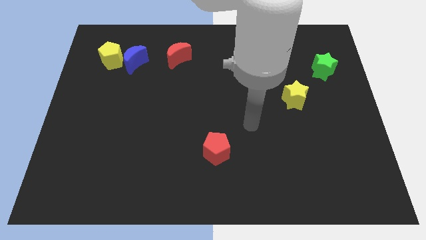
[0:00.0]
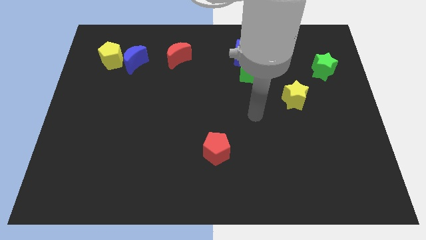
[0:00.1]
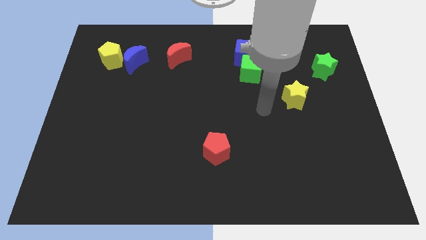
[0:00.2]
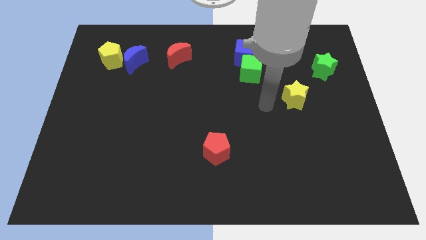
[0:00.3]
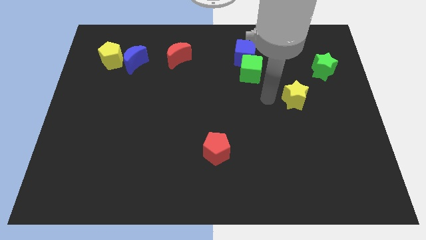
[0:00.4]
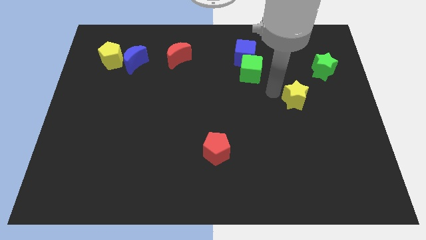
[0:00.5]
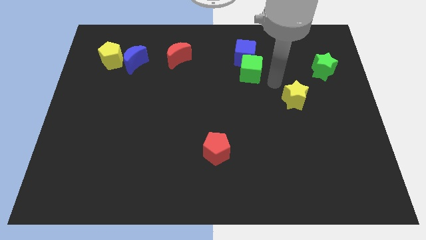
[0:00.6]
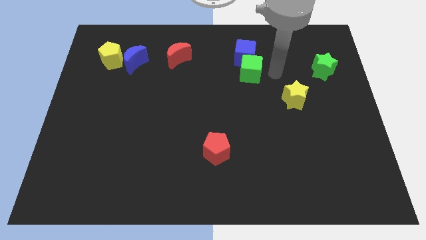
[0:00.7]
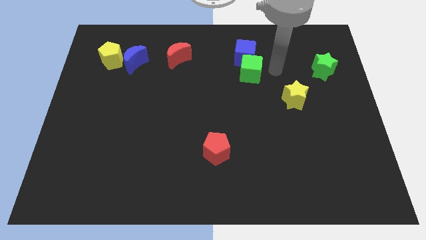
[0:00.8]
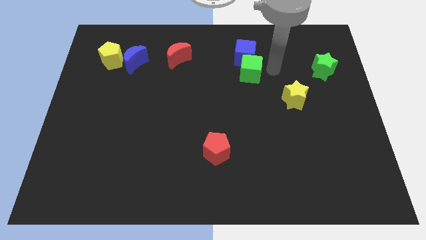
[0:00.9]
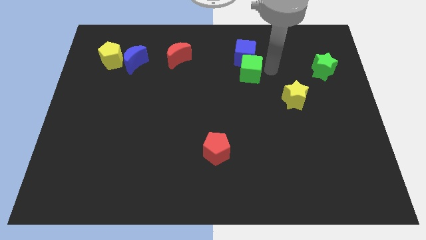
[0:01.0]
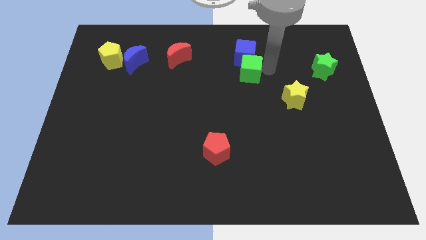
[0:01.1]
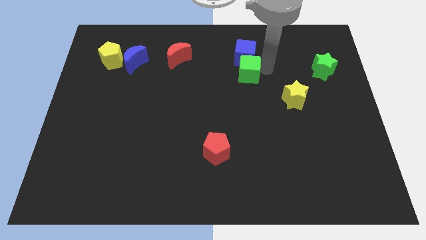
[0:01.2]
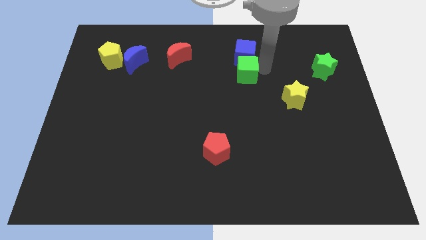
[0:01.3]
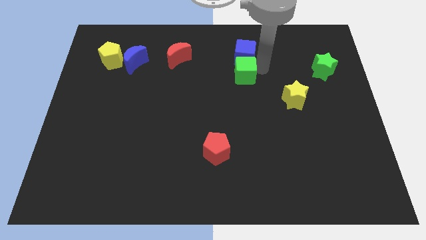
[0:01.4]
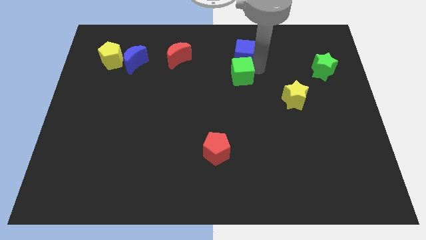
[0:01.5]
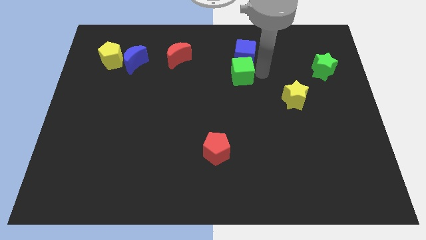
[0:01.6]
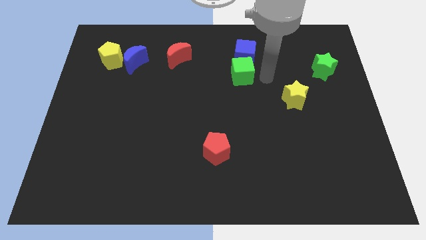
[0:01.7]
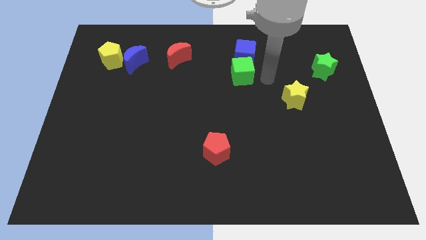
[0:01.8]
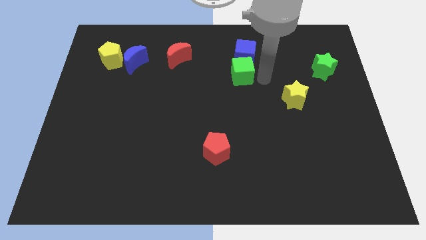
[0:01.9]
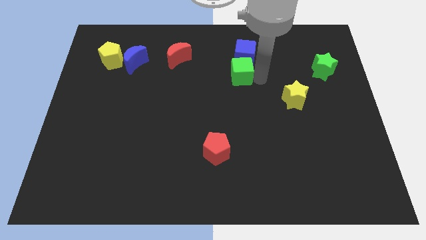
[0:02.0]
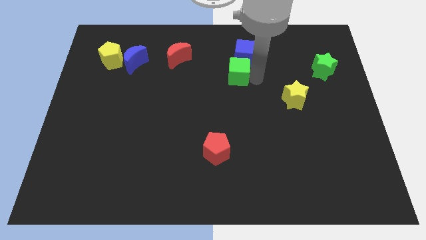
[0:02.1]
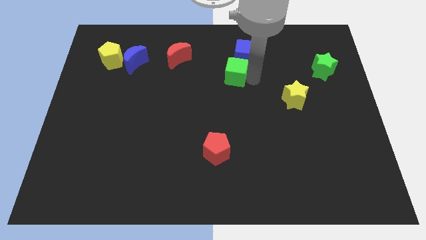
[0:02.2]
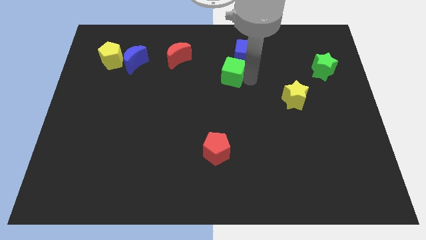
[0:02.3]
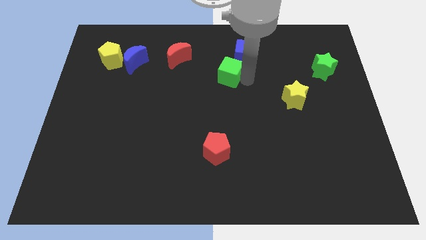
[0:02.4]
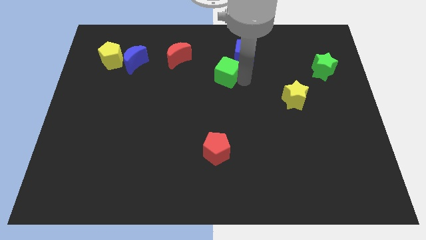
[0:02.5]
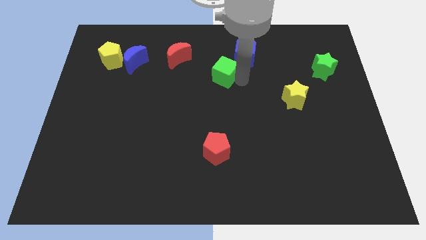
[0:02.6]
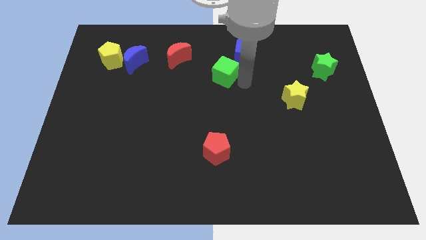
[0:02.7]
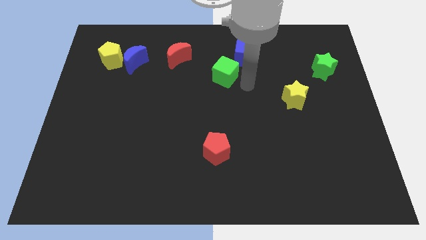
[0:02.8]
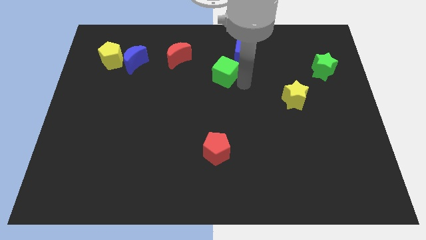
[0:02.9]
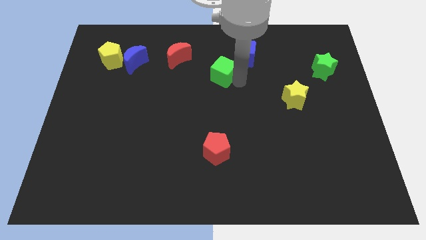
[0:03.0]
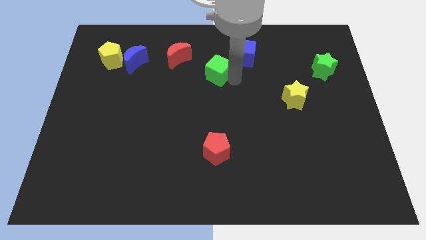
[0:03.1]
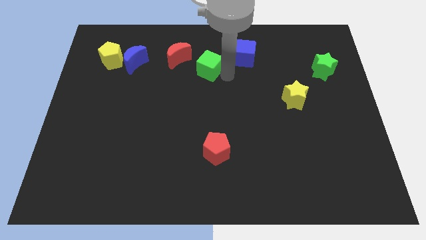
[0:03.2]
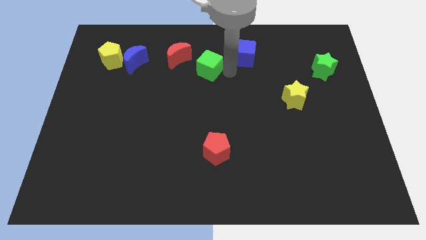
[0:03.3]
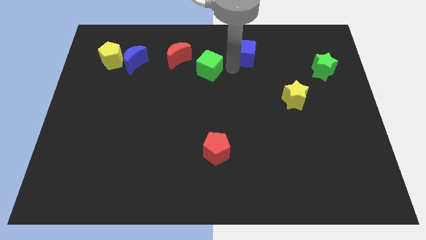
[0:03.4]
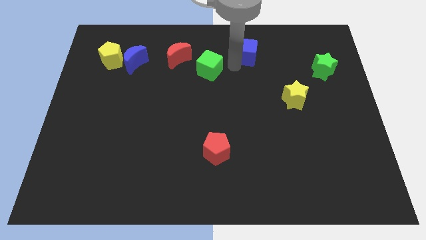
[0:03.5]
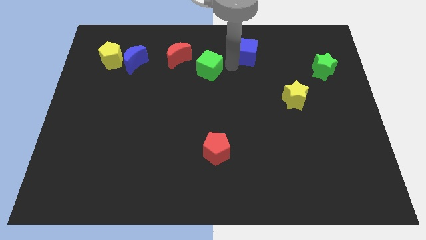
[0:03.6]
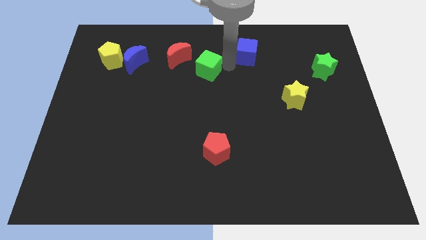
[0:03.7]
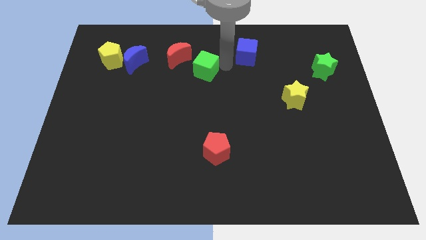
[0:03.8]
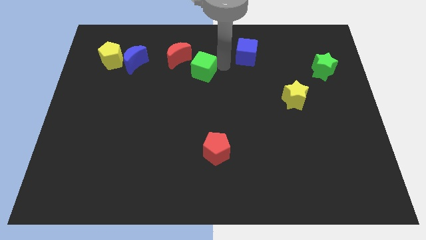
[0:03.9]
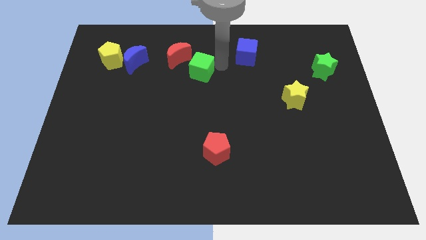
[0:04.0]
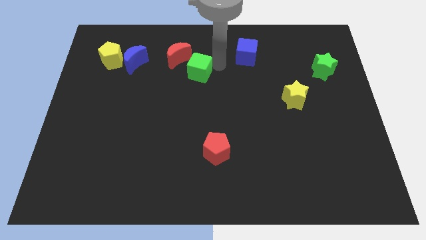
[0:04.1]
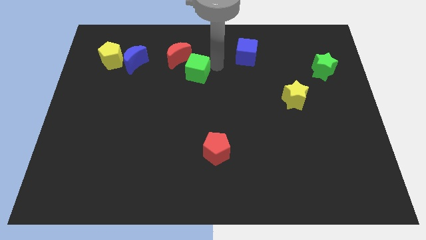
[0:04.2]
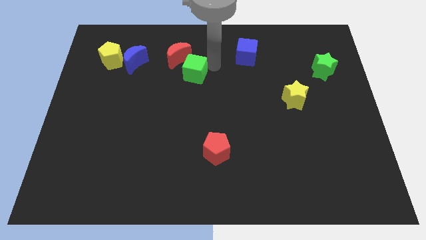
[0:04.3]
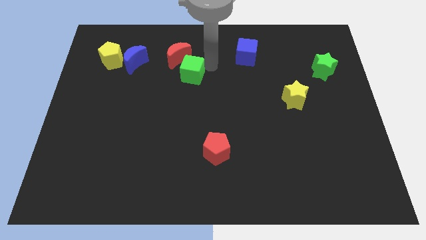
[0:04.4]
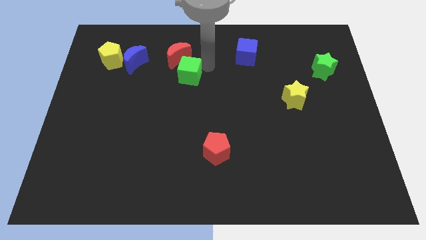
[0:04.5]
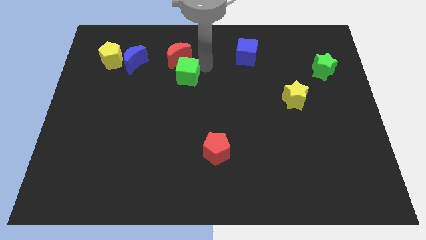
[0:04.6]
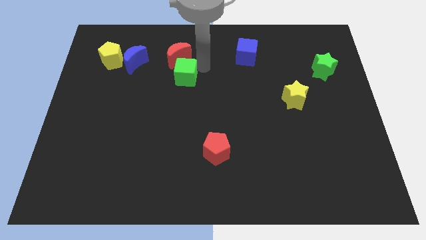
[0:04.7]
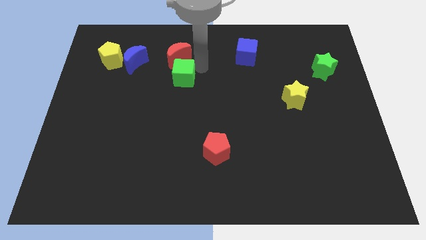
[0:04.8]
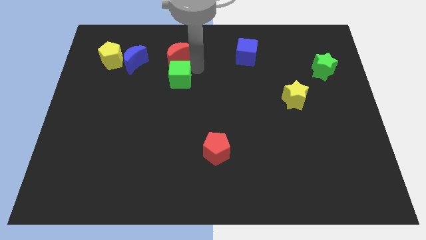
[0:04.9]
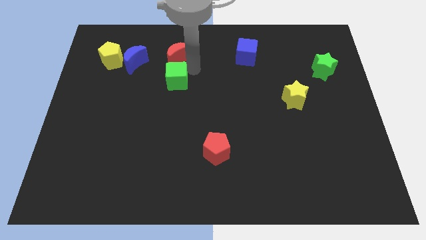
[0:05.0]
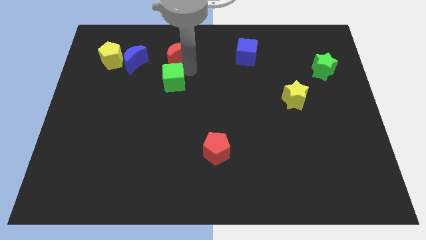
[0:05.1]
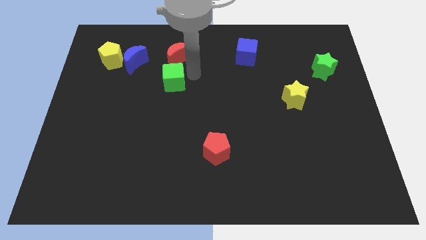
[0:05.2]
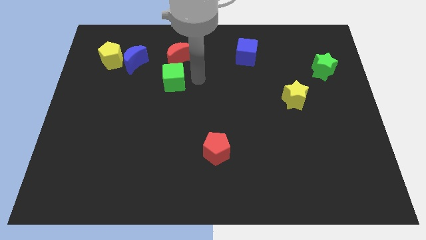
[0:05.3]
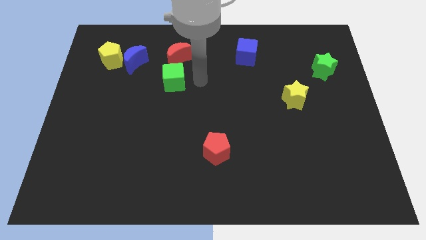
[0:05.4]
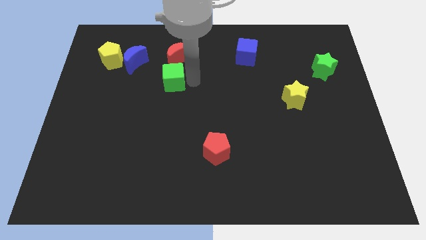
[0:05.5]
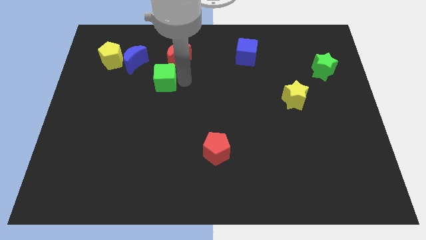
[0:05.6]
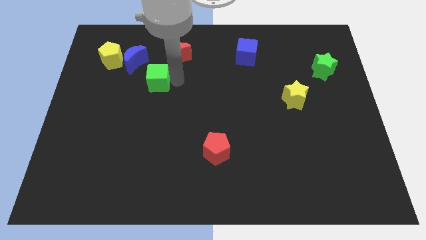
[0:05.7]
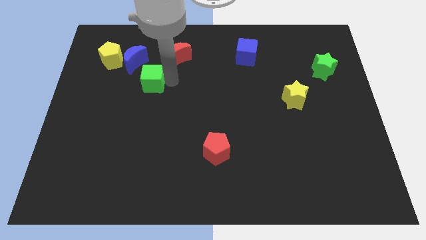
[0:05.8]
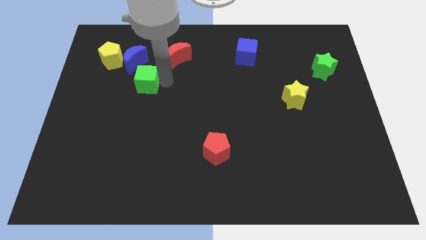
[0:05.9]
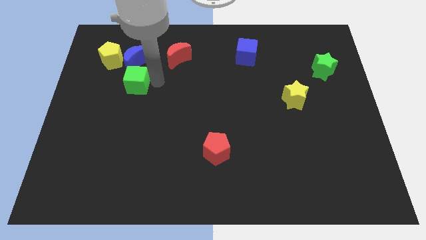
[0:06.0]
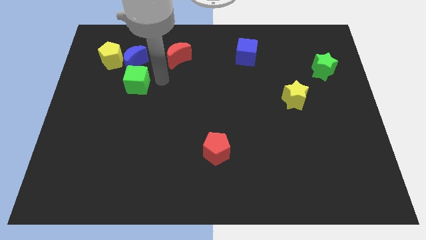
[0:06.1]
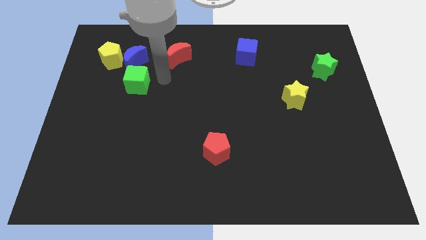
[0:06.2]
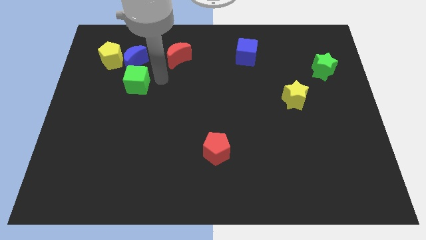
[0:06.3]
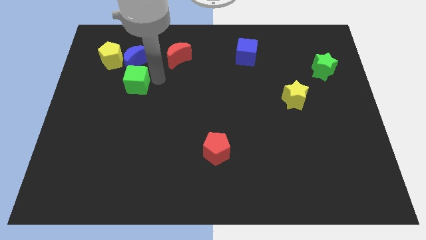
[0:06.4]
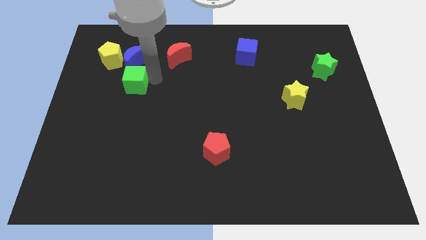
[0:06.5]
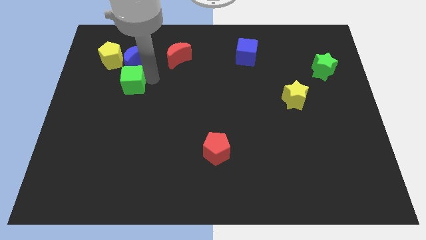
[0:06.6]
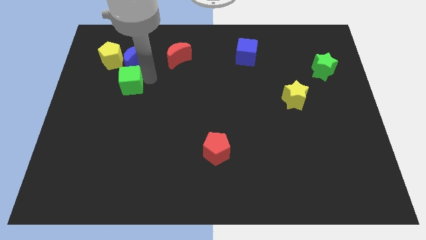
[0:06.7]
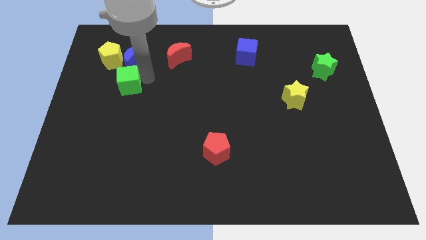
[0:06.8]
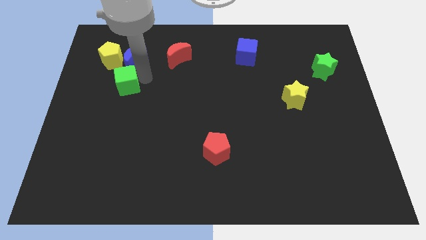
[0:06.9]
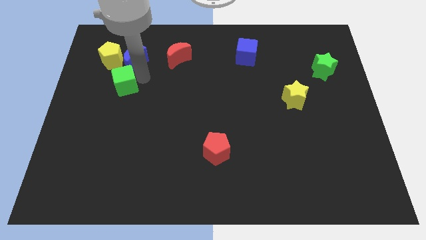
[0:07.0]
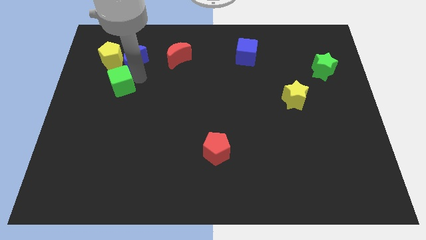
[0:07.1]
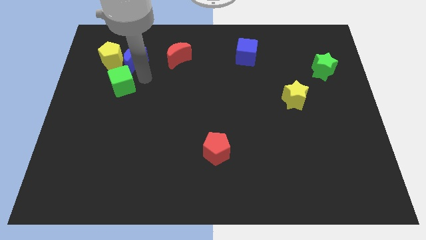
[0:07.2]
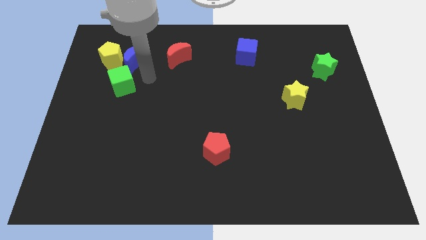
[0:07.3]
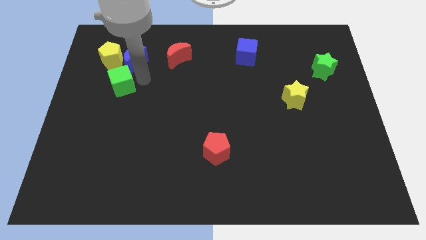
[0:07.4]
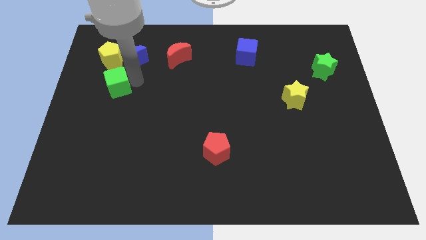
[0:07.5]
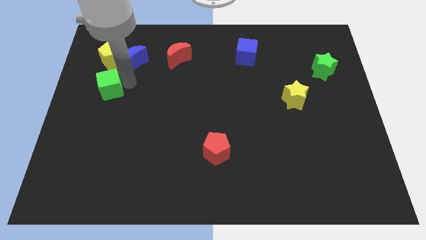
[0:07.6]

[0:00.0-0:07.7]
slide the green cube to the left side of the board
